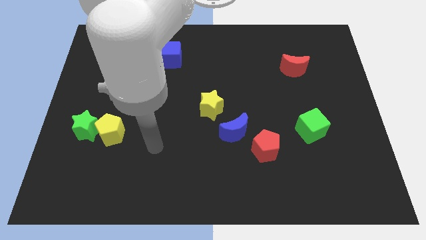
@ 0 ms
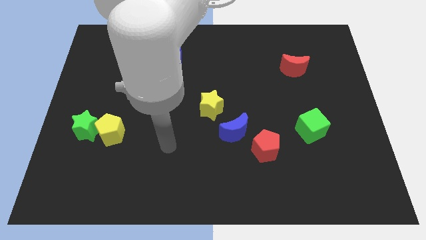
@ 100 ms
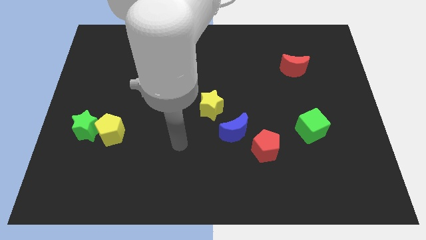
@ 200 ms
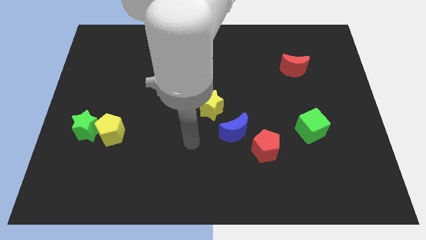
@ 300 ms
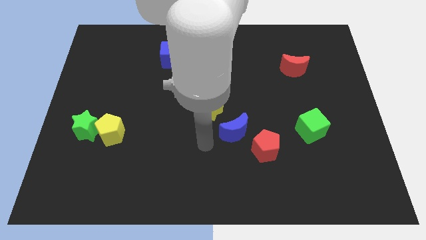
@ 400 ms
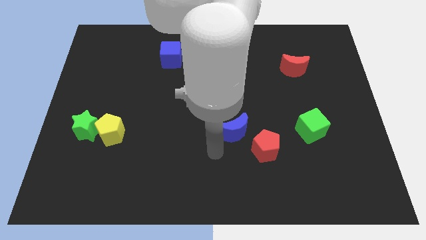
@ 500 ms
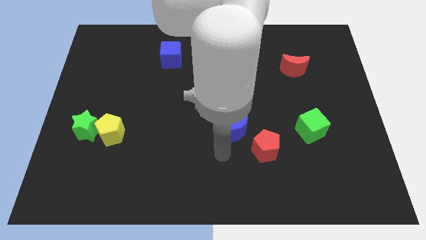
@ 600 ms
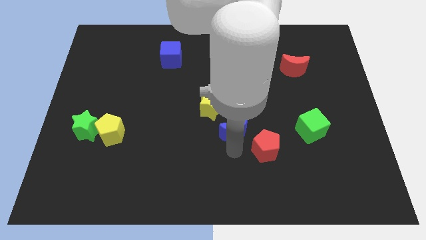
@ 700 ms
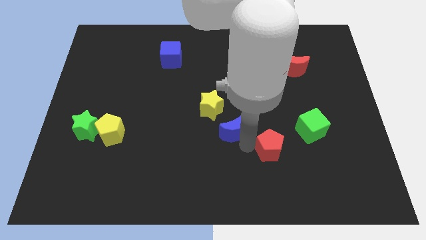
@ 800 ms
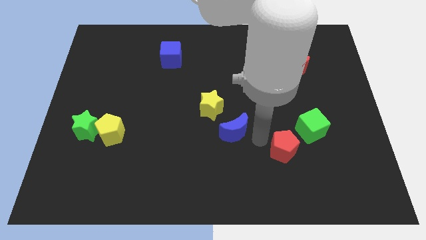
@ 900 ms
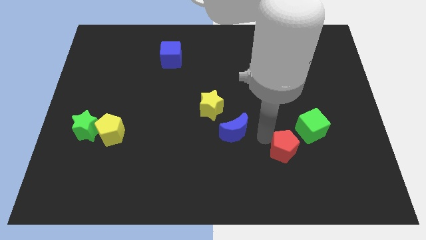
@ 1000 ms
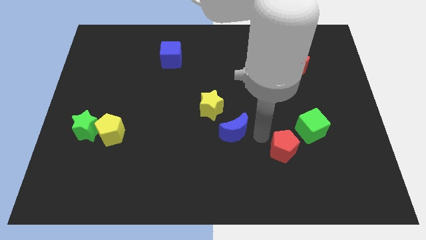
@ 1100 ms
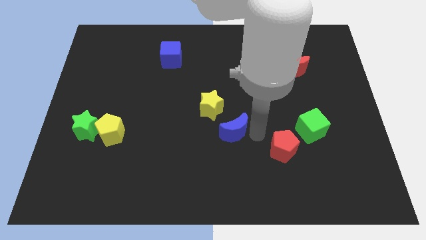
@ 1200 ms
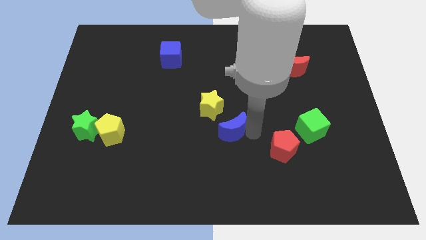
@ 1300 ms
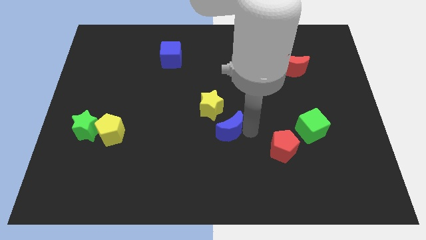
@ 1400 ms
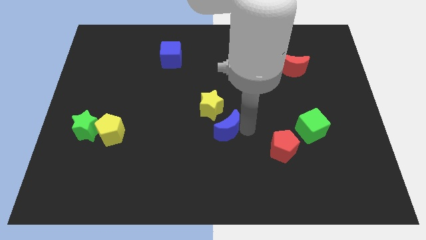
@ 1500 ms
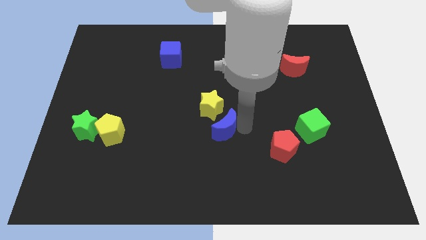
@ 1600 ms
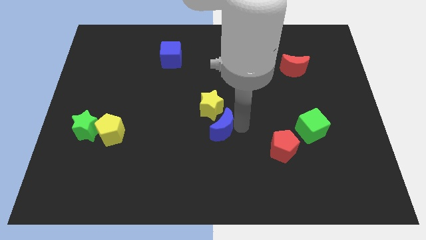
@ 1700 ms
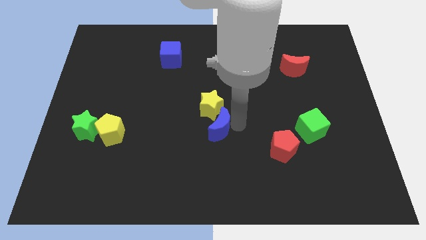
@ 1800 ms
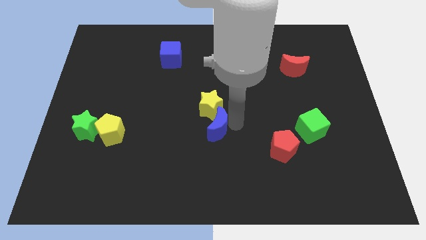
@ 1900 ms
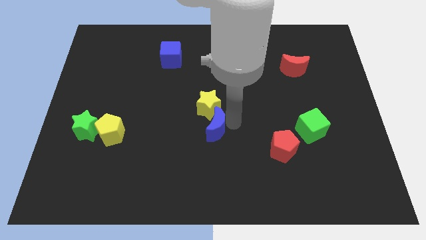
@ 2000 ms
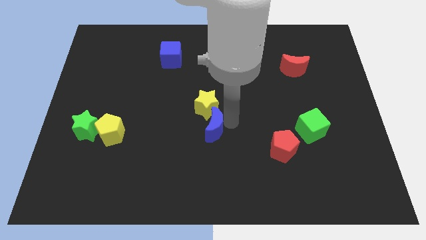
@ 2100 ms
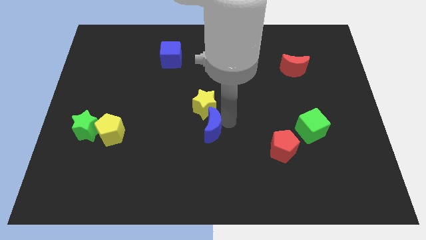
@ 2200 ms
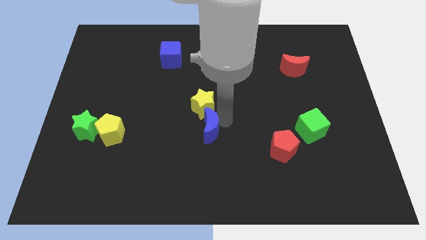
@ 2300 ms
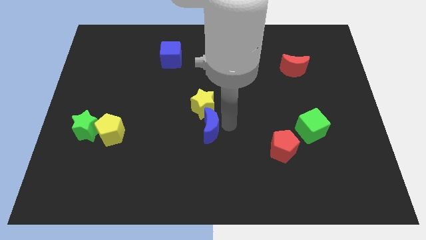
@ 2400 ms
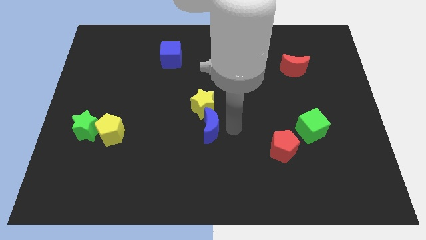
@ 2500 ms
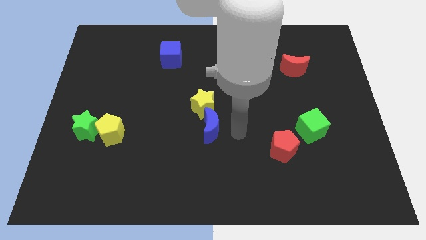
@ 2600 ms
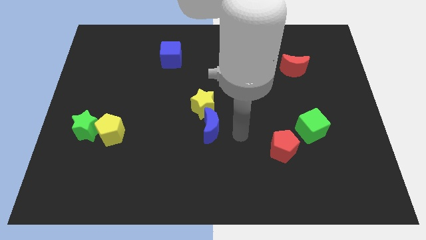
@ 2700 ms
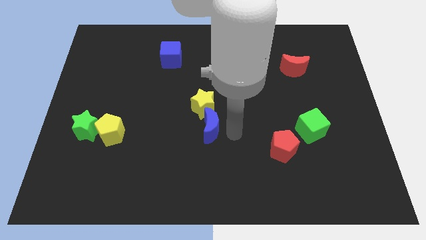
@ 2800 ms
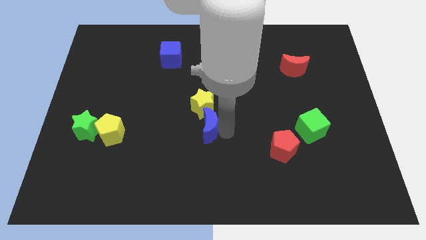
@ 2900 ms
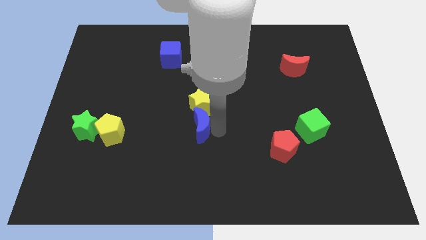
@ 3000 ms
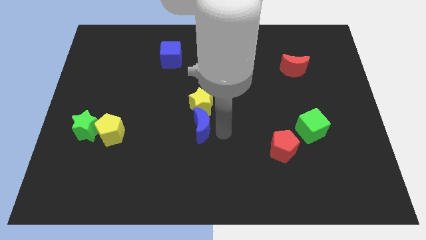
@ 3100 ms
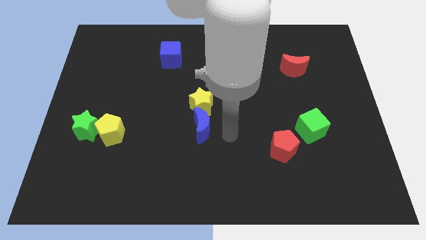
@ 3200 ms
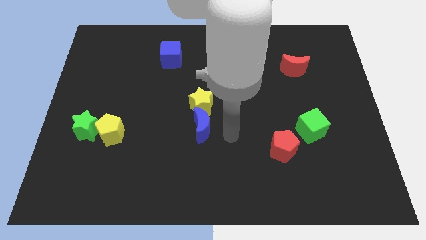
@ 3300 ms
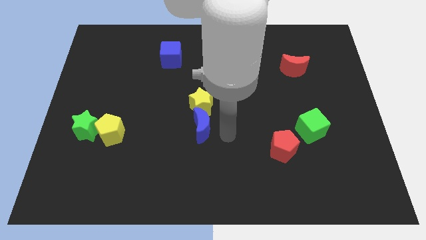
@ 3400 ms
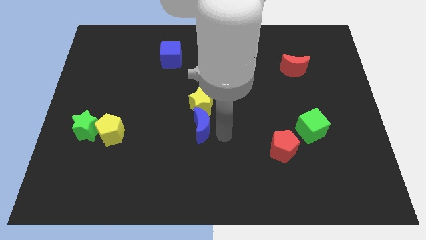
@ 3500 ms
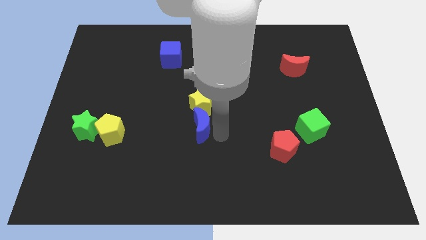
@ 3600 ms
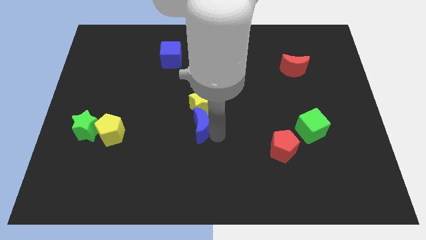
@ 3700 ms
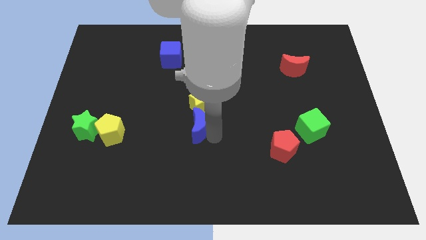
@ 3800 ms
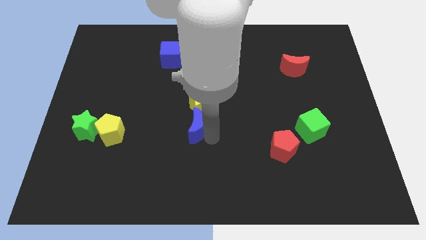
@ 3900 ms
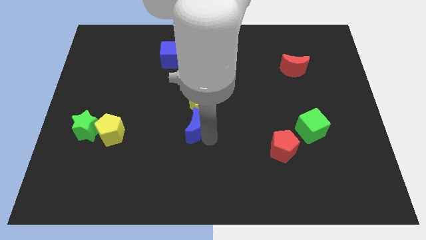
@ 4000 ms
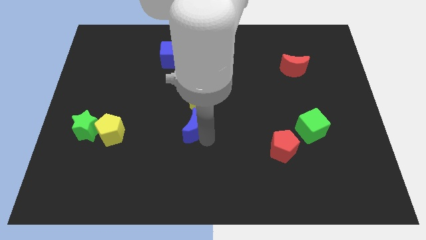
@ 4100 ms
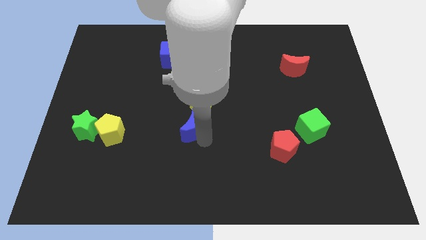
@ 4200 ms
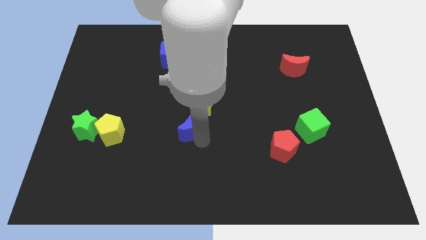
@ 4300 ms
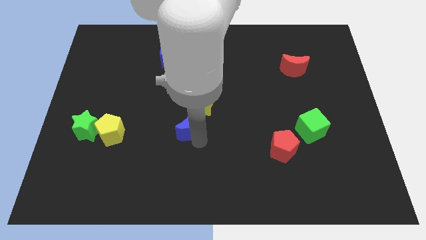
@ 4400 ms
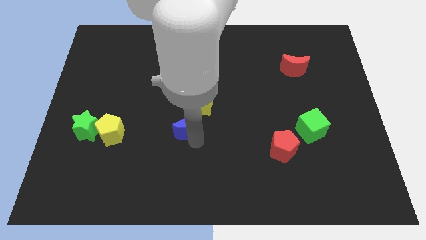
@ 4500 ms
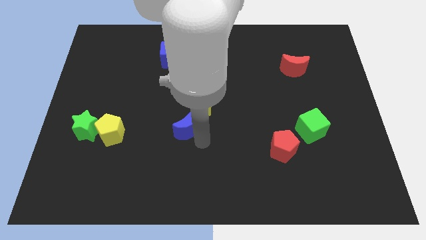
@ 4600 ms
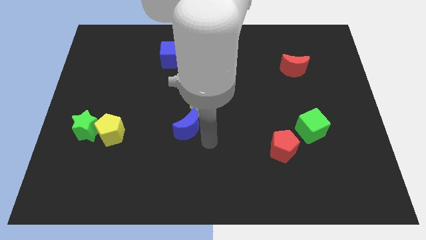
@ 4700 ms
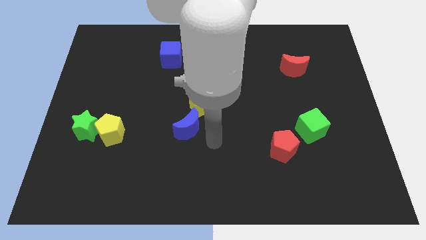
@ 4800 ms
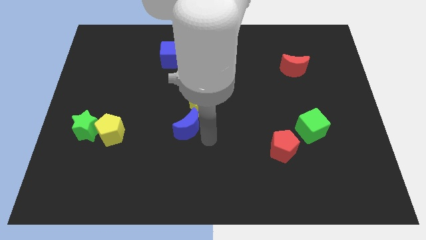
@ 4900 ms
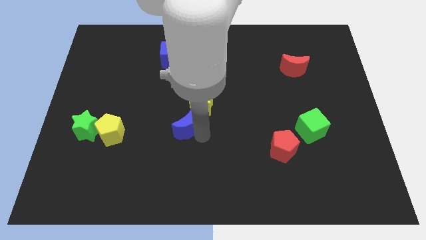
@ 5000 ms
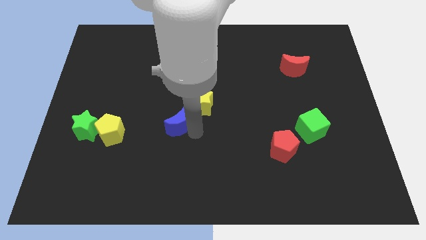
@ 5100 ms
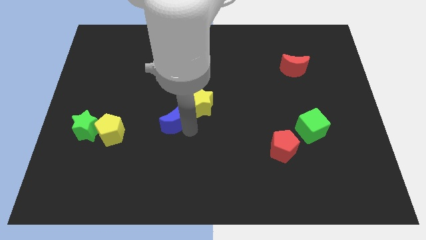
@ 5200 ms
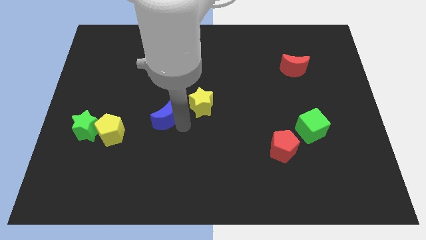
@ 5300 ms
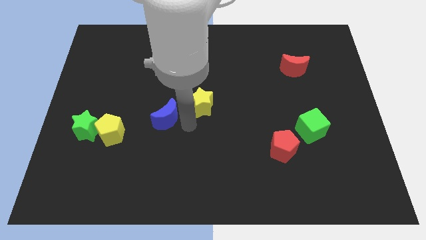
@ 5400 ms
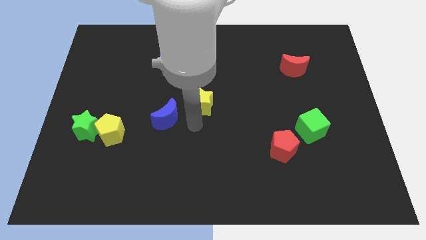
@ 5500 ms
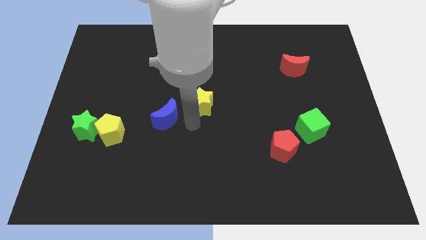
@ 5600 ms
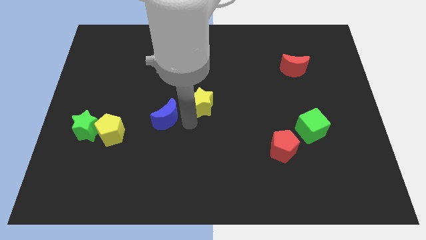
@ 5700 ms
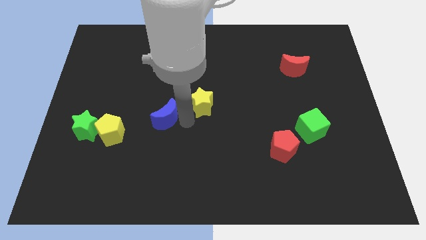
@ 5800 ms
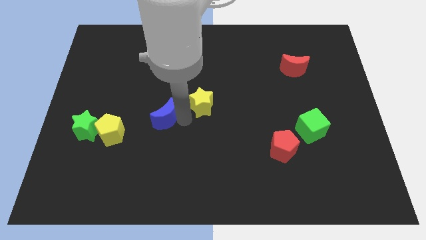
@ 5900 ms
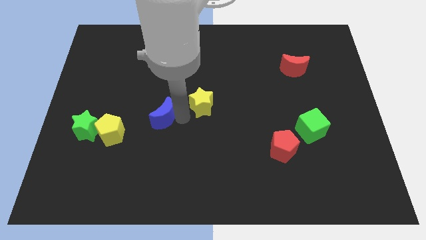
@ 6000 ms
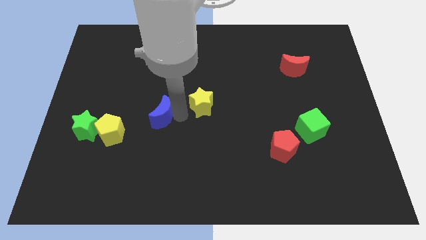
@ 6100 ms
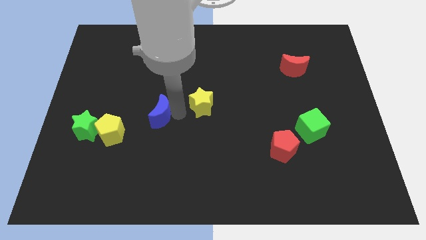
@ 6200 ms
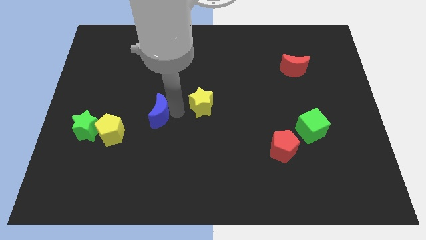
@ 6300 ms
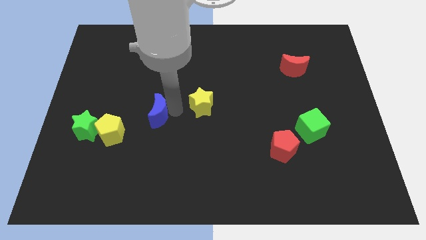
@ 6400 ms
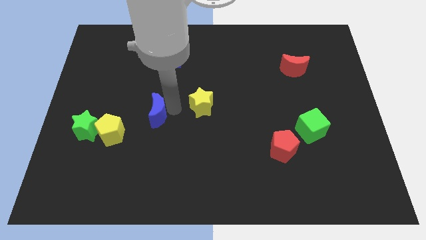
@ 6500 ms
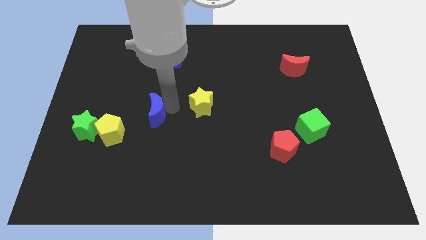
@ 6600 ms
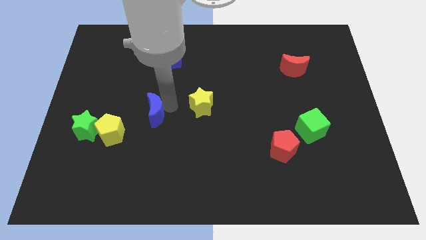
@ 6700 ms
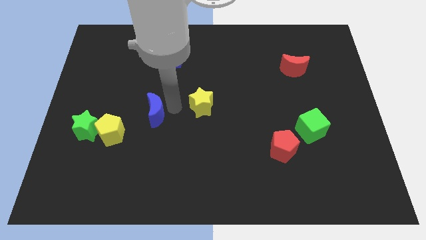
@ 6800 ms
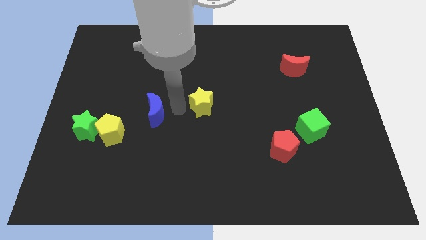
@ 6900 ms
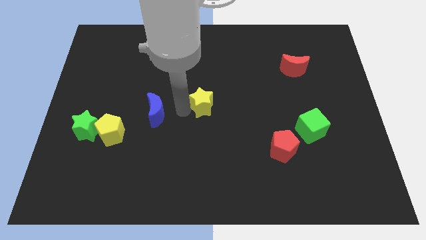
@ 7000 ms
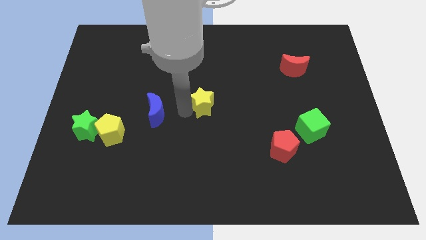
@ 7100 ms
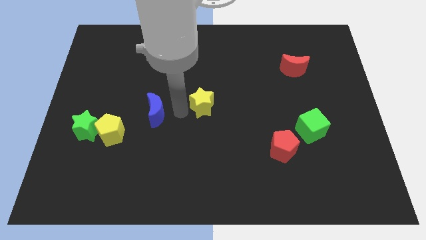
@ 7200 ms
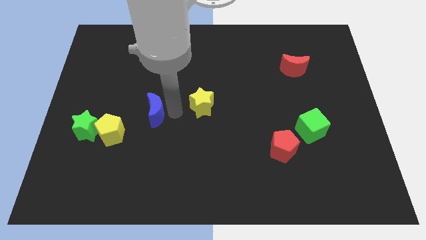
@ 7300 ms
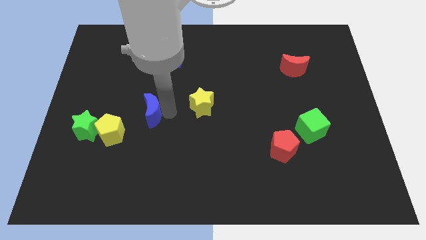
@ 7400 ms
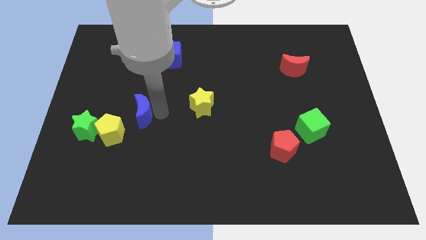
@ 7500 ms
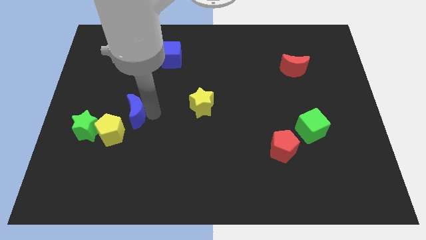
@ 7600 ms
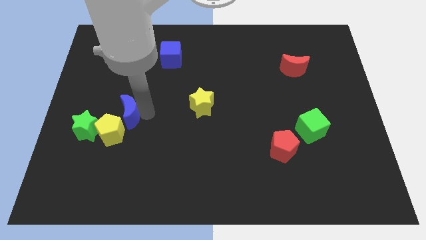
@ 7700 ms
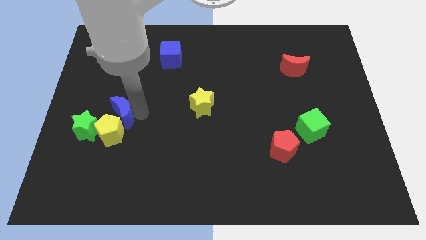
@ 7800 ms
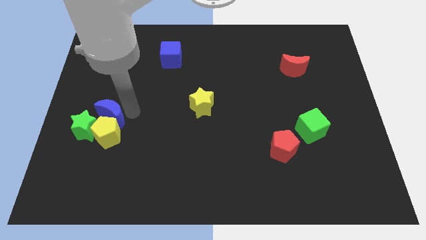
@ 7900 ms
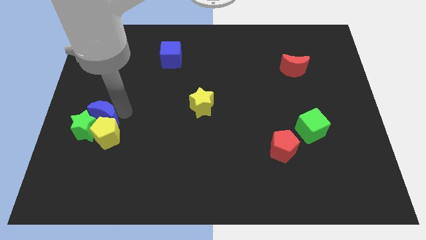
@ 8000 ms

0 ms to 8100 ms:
slide the blue moon towards the green star
